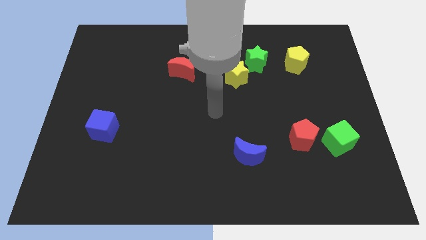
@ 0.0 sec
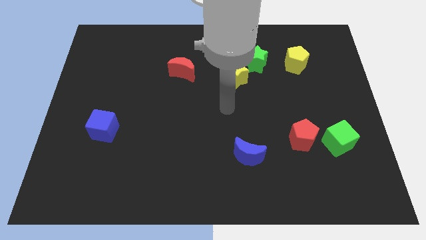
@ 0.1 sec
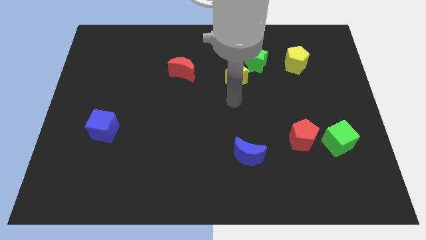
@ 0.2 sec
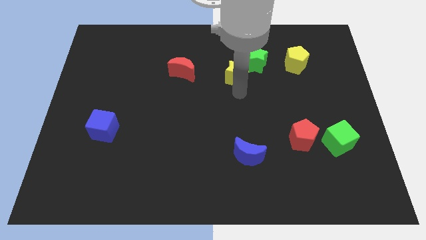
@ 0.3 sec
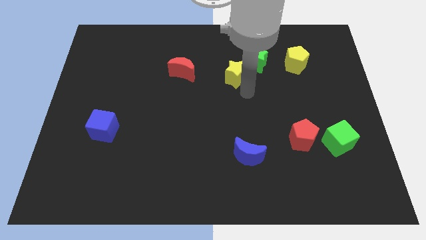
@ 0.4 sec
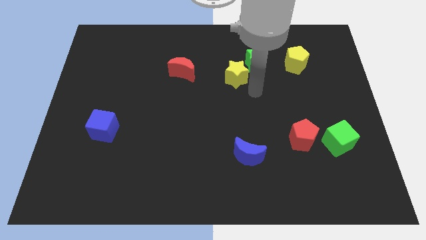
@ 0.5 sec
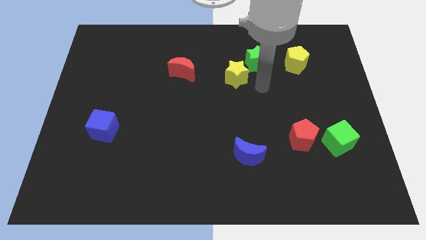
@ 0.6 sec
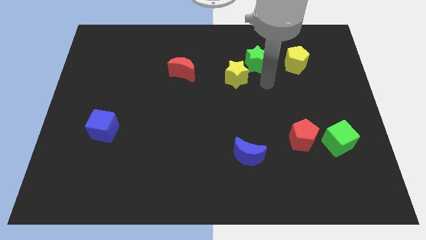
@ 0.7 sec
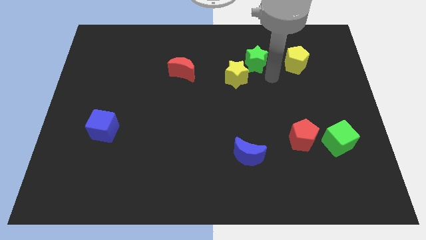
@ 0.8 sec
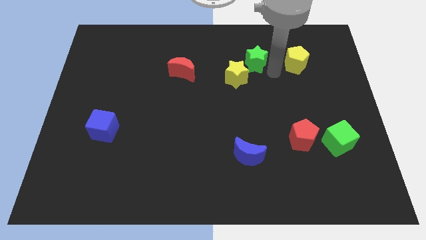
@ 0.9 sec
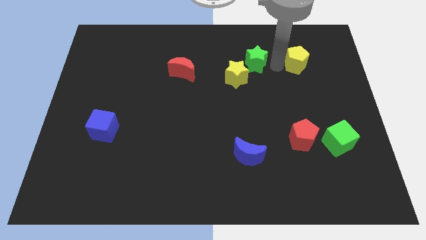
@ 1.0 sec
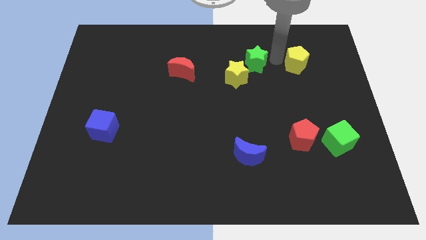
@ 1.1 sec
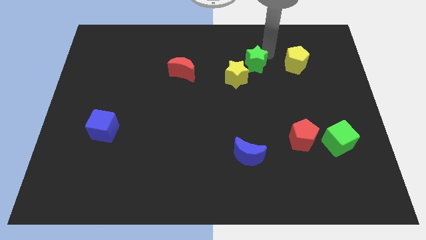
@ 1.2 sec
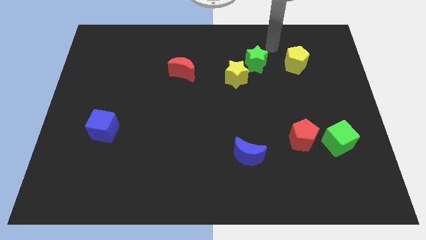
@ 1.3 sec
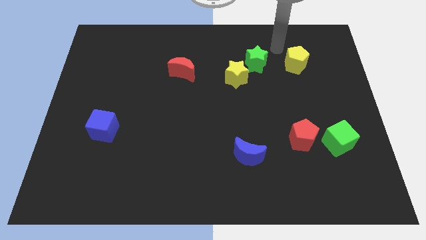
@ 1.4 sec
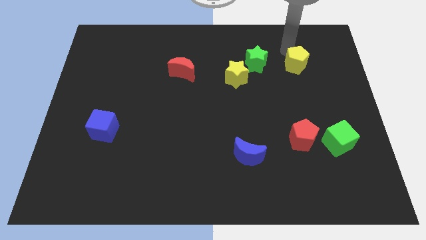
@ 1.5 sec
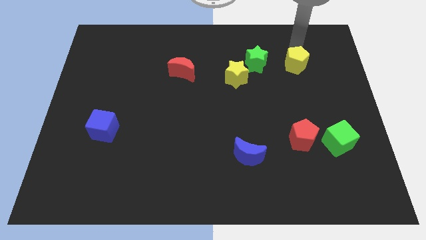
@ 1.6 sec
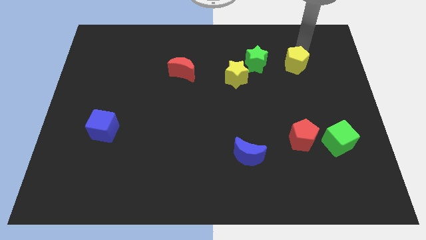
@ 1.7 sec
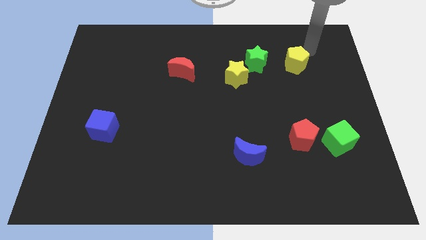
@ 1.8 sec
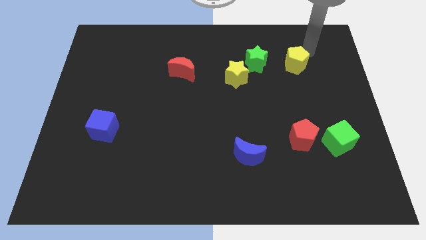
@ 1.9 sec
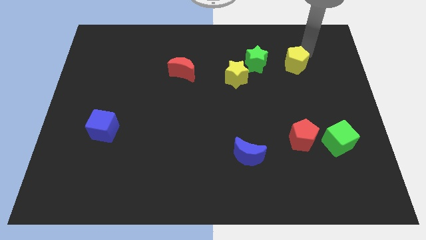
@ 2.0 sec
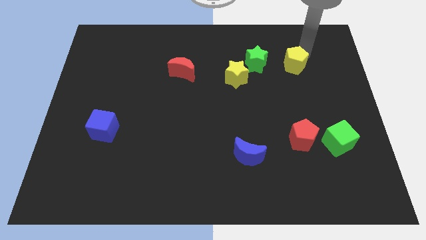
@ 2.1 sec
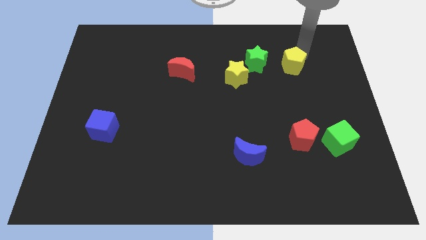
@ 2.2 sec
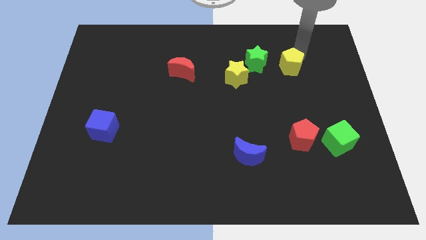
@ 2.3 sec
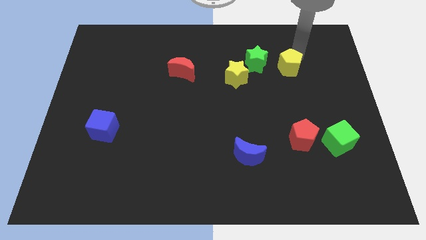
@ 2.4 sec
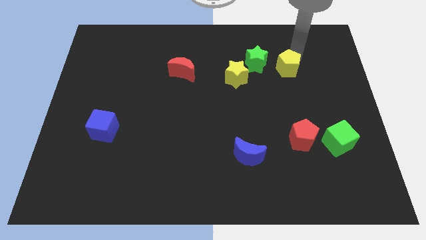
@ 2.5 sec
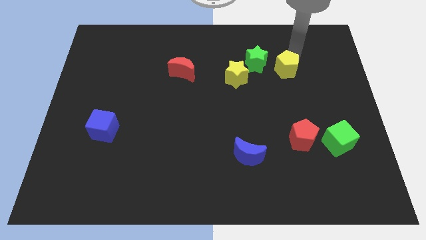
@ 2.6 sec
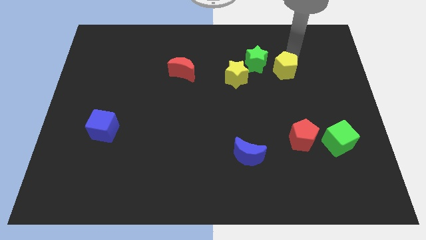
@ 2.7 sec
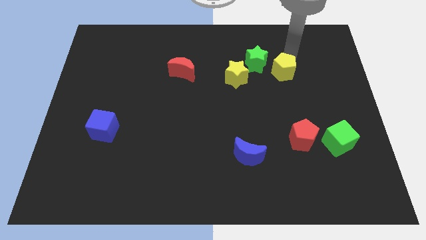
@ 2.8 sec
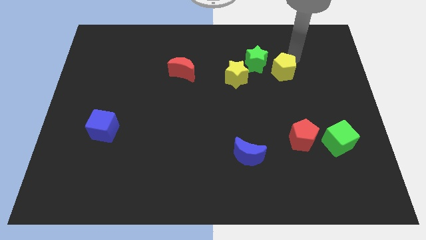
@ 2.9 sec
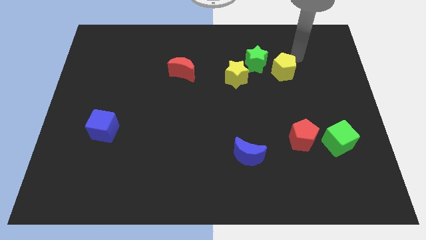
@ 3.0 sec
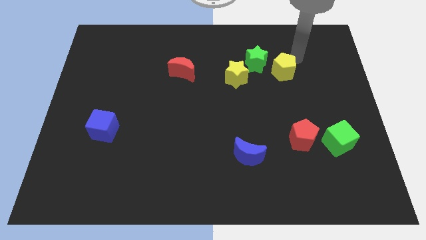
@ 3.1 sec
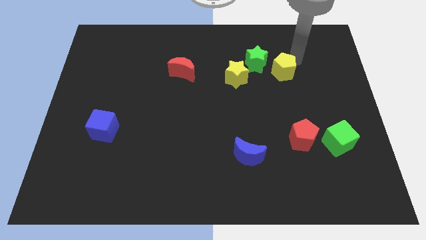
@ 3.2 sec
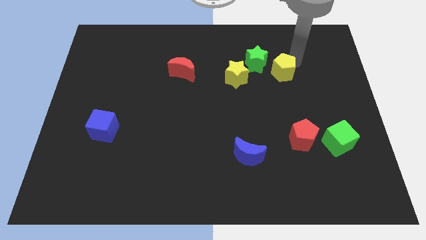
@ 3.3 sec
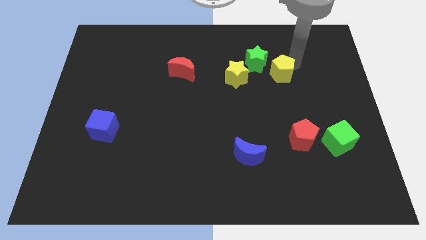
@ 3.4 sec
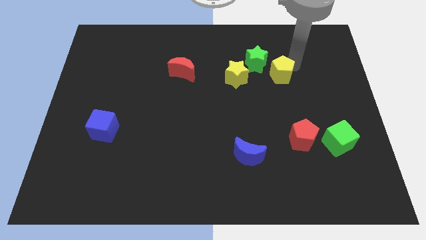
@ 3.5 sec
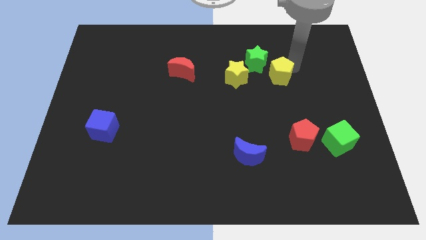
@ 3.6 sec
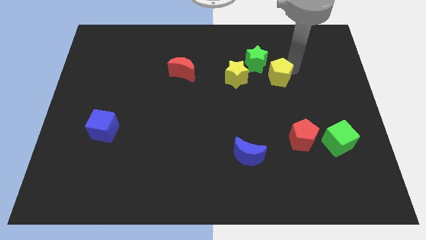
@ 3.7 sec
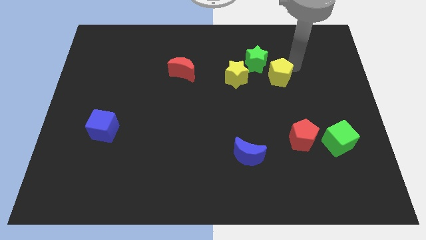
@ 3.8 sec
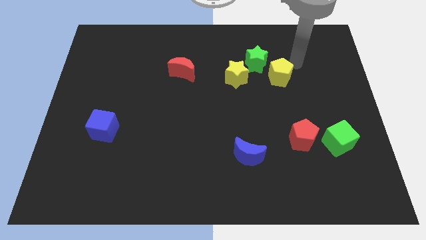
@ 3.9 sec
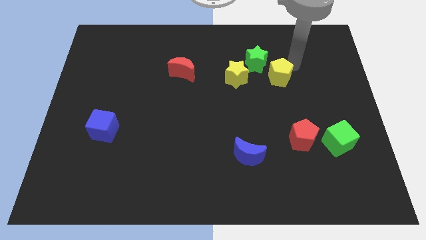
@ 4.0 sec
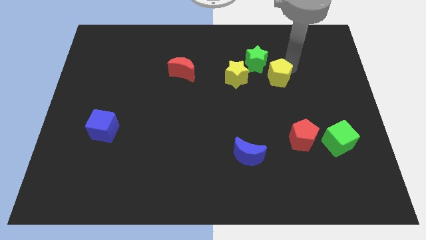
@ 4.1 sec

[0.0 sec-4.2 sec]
push the yellow pentagon diagonally downwards and to the left somewhat

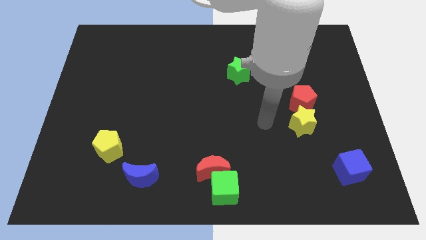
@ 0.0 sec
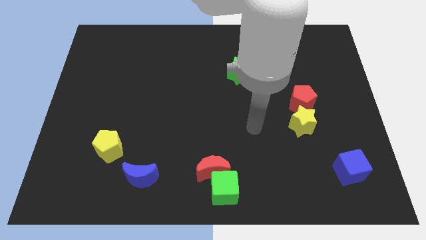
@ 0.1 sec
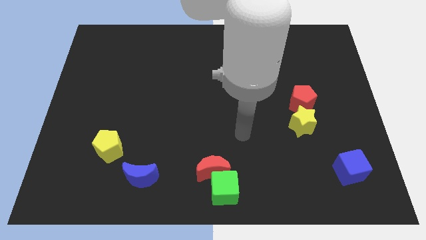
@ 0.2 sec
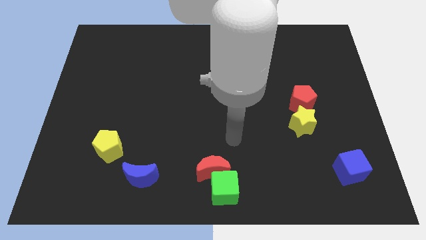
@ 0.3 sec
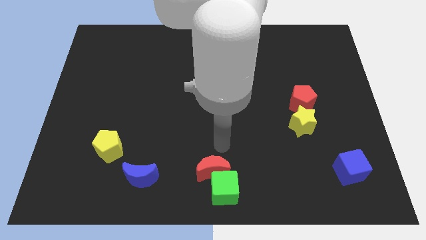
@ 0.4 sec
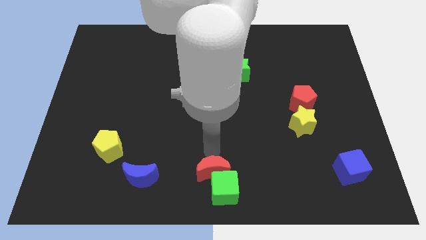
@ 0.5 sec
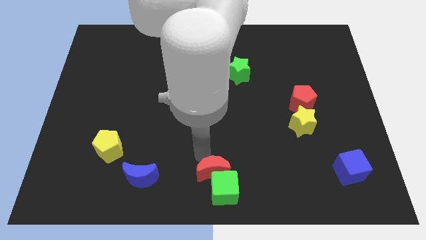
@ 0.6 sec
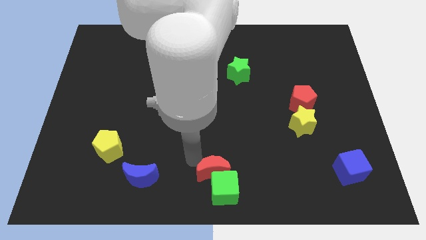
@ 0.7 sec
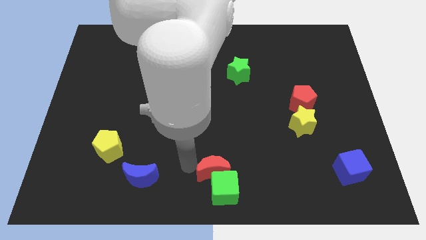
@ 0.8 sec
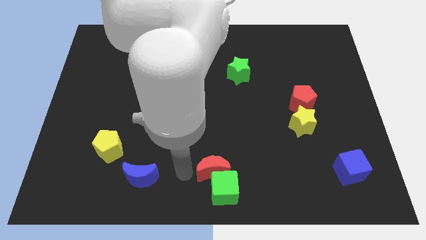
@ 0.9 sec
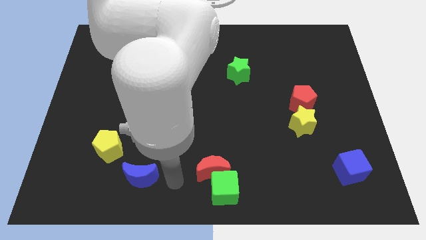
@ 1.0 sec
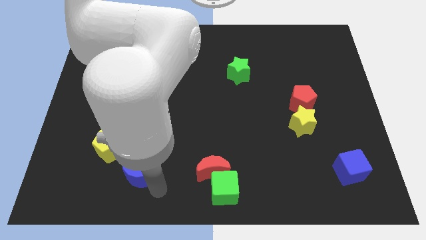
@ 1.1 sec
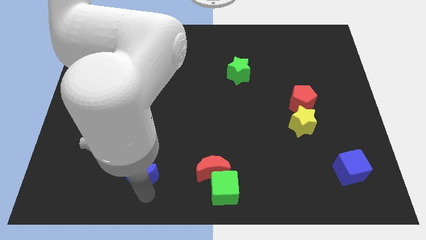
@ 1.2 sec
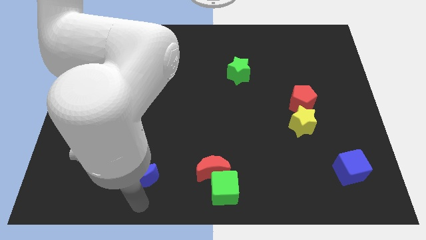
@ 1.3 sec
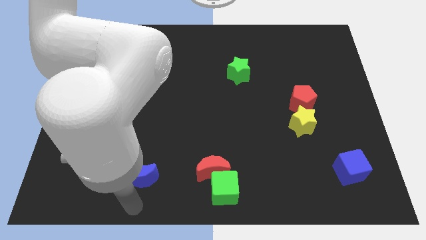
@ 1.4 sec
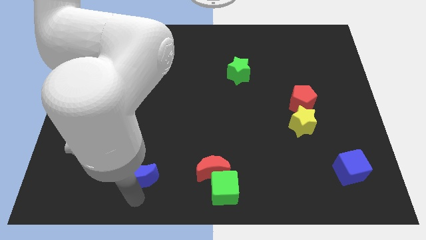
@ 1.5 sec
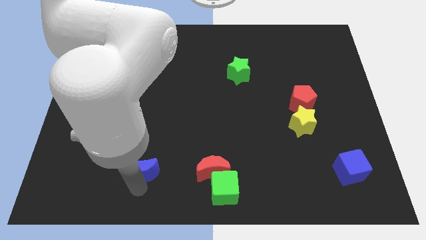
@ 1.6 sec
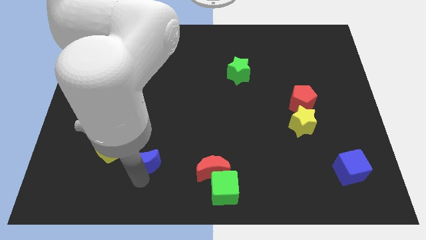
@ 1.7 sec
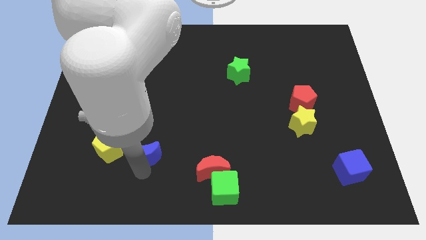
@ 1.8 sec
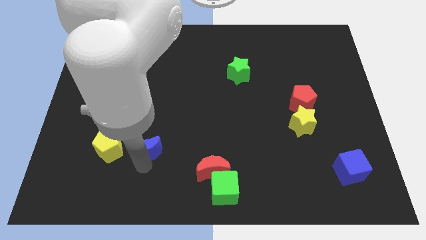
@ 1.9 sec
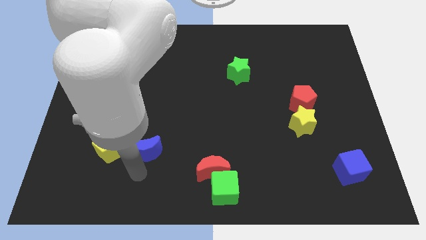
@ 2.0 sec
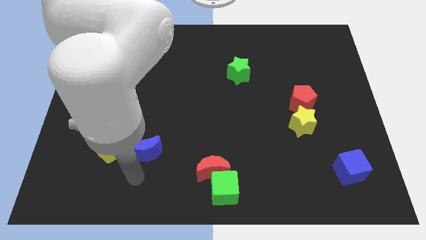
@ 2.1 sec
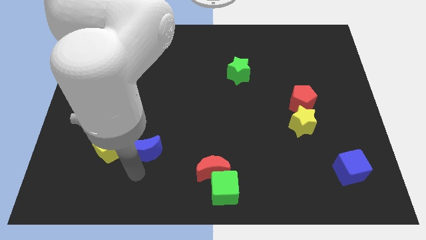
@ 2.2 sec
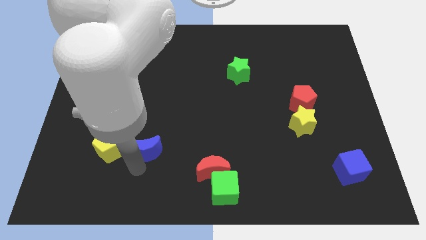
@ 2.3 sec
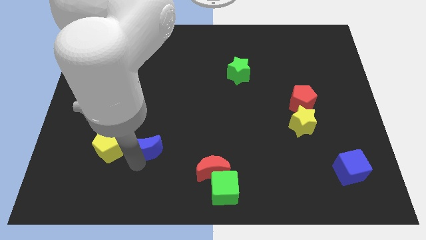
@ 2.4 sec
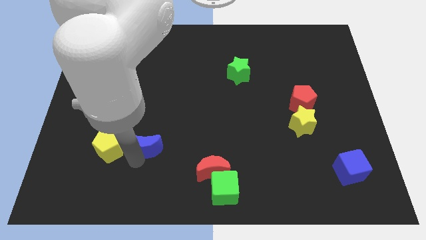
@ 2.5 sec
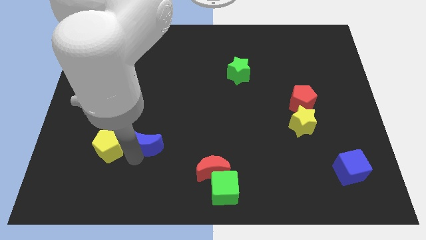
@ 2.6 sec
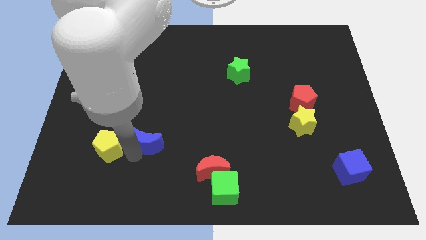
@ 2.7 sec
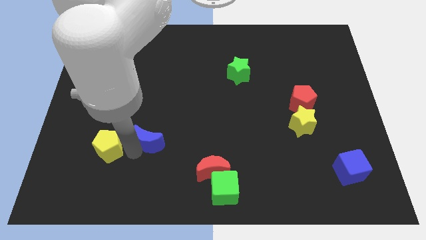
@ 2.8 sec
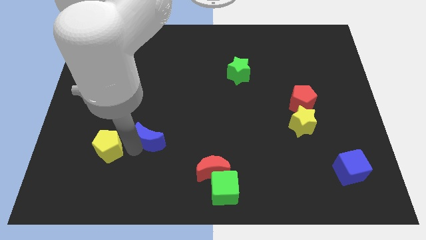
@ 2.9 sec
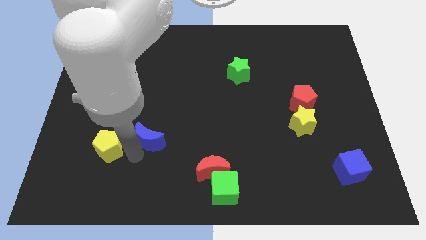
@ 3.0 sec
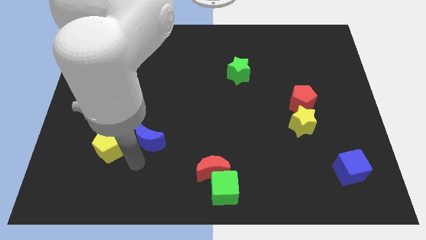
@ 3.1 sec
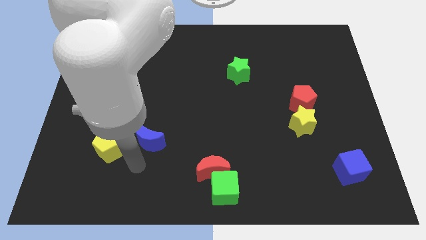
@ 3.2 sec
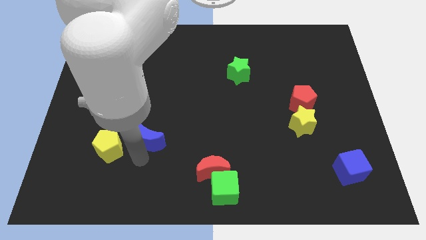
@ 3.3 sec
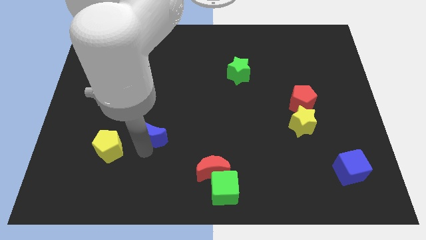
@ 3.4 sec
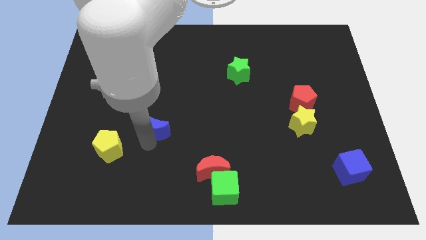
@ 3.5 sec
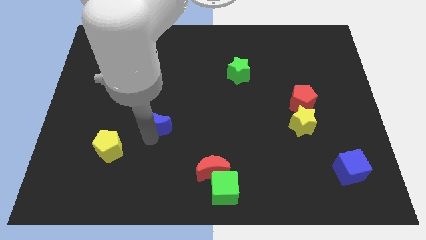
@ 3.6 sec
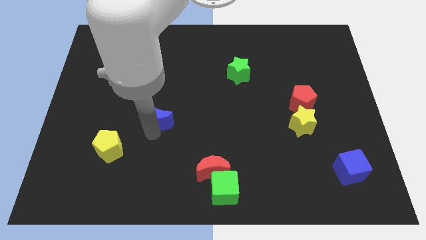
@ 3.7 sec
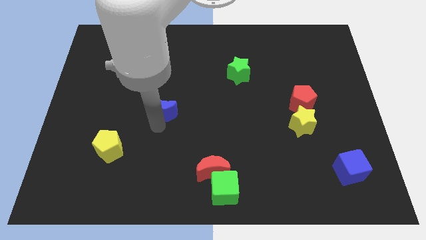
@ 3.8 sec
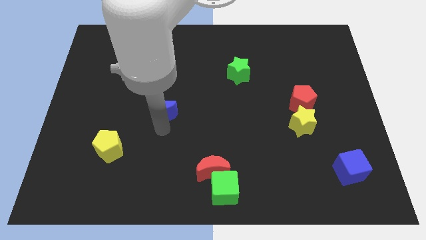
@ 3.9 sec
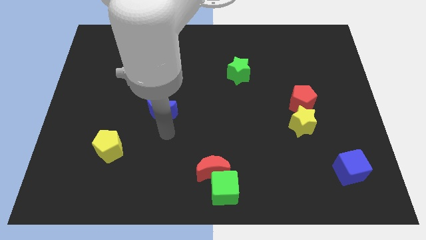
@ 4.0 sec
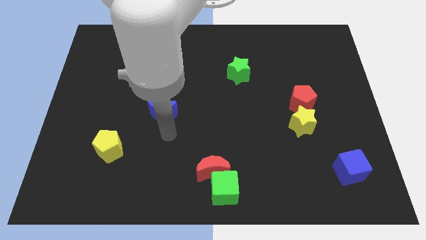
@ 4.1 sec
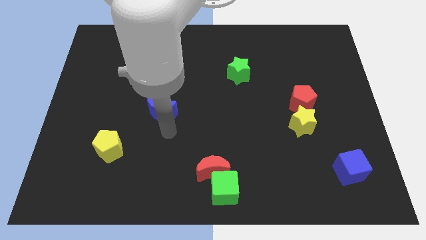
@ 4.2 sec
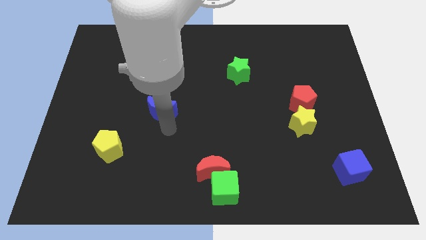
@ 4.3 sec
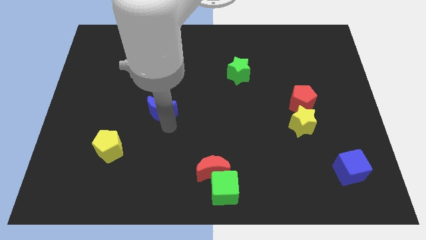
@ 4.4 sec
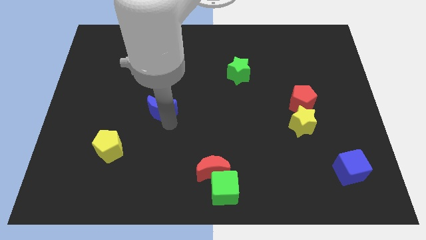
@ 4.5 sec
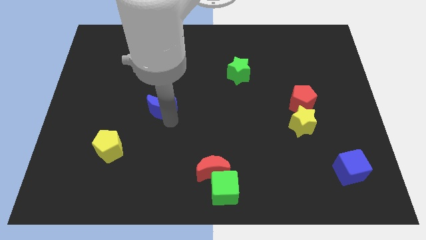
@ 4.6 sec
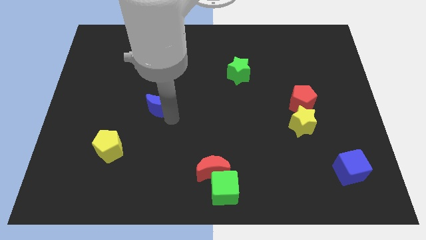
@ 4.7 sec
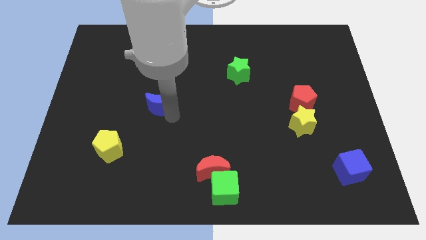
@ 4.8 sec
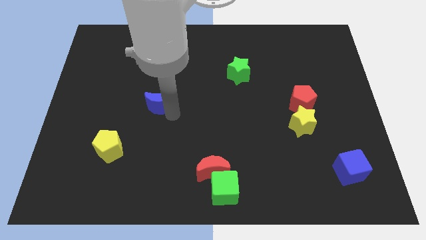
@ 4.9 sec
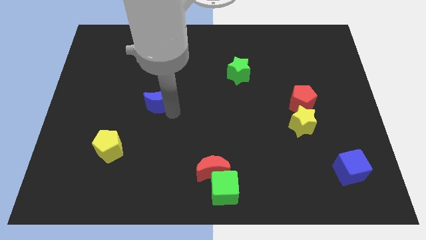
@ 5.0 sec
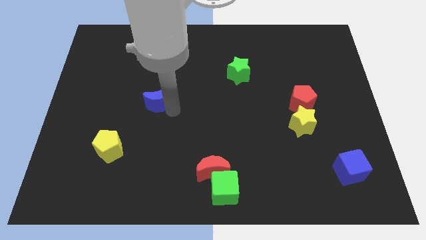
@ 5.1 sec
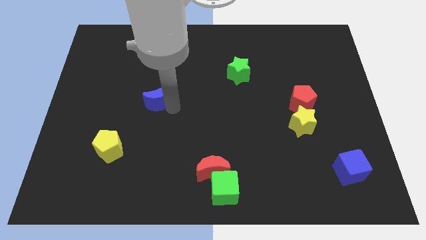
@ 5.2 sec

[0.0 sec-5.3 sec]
move the blue moon up
